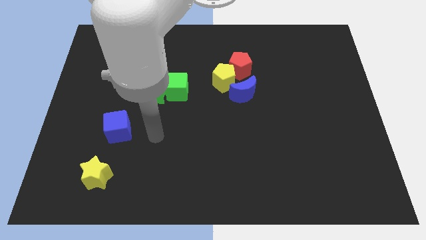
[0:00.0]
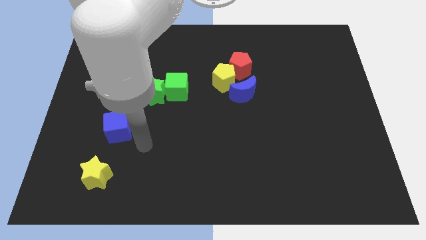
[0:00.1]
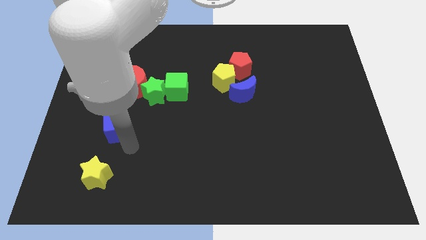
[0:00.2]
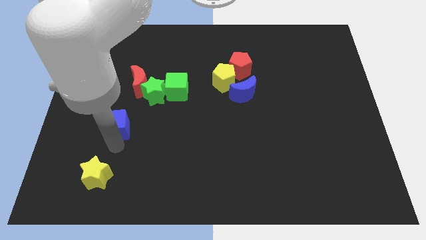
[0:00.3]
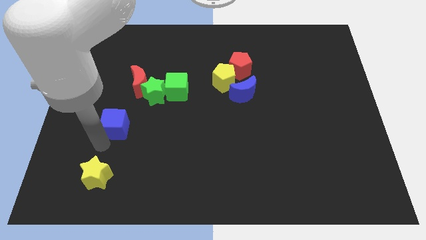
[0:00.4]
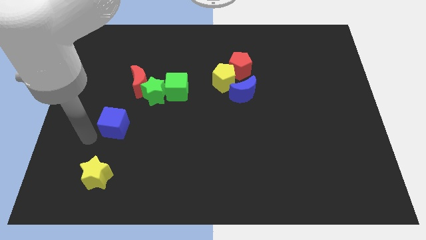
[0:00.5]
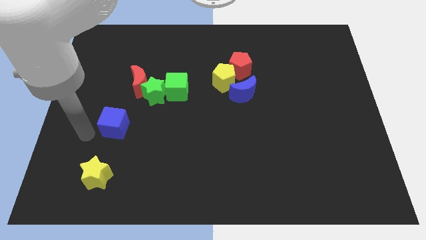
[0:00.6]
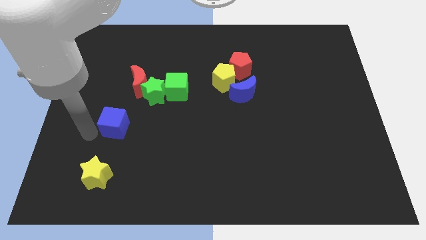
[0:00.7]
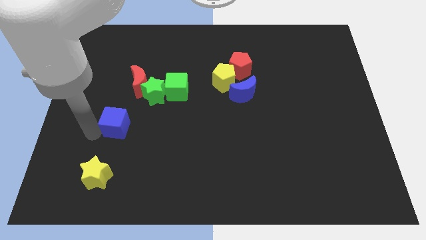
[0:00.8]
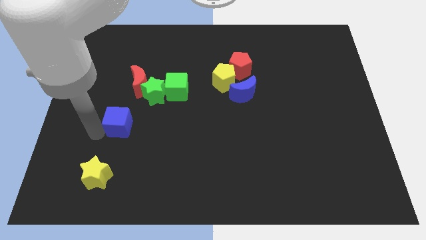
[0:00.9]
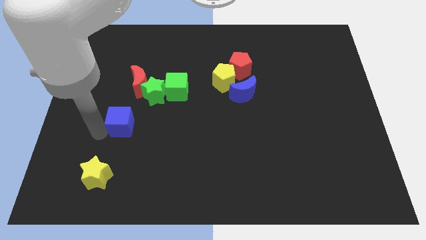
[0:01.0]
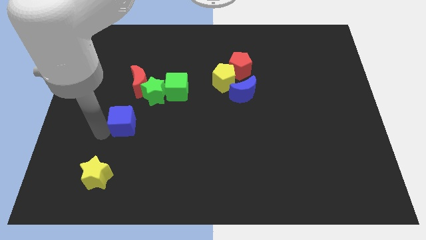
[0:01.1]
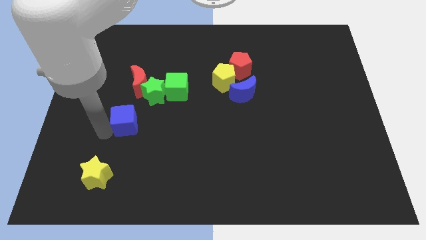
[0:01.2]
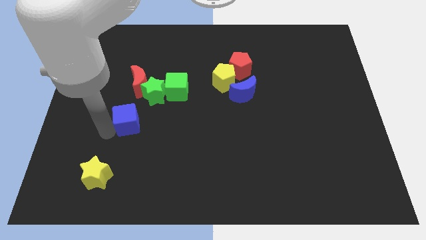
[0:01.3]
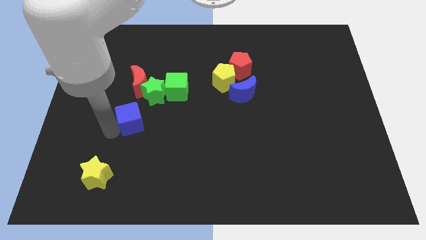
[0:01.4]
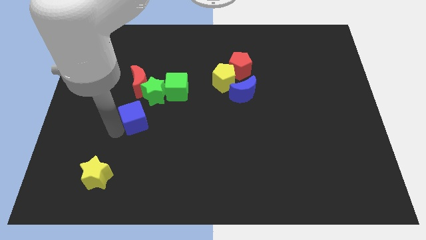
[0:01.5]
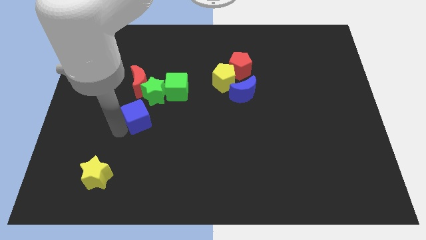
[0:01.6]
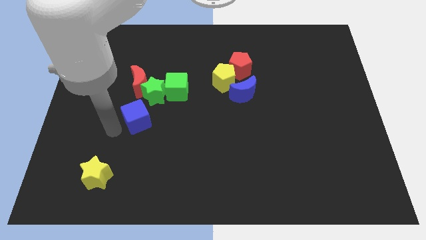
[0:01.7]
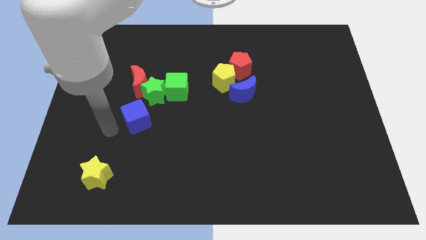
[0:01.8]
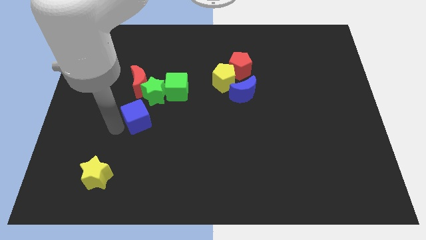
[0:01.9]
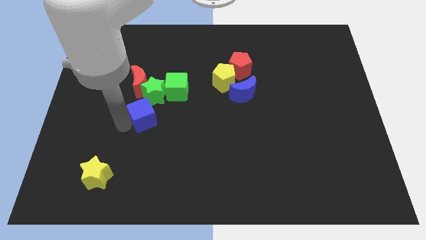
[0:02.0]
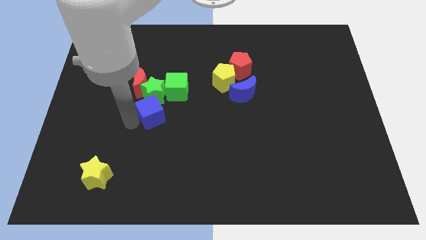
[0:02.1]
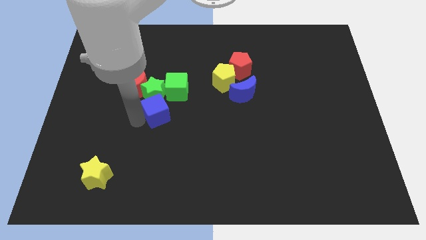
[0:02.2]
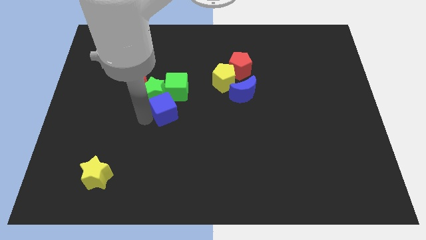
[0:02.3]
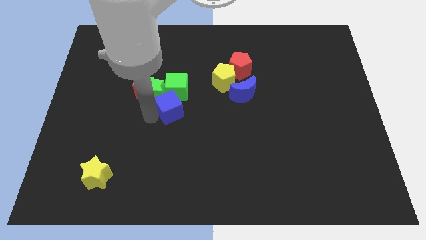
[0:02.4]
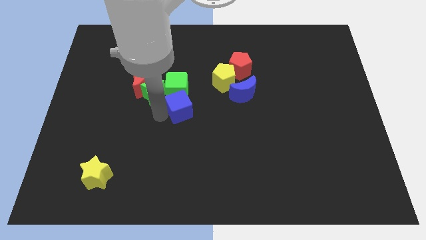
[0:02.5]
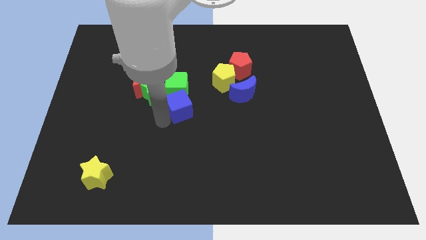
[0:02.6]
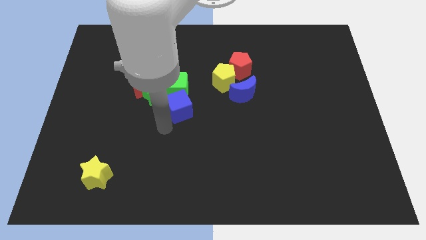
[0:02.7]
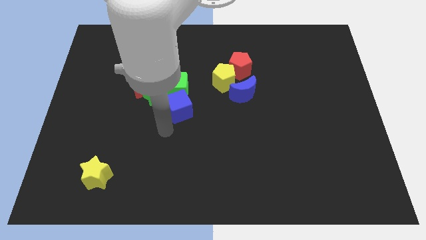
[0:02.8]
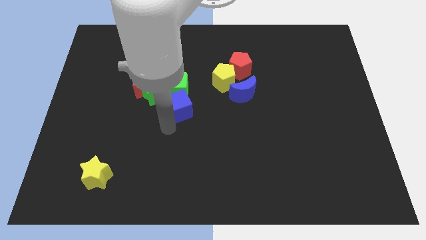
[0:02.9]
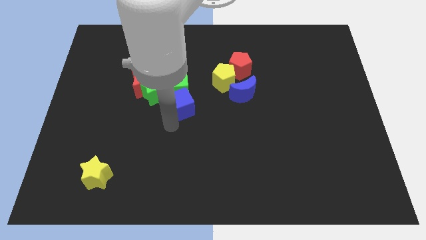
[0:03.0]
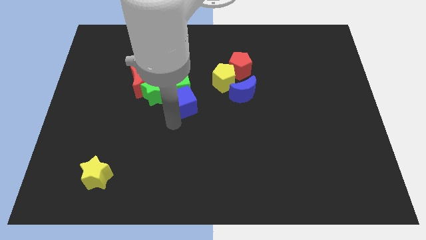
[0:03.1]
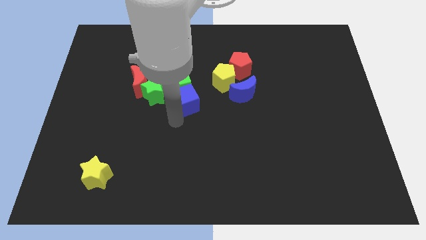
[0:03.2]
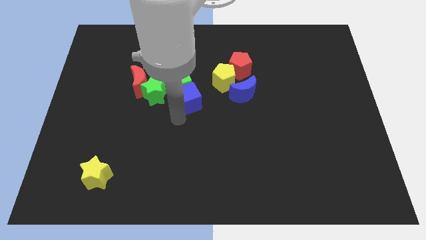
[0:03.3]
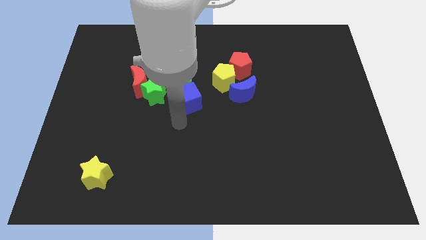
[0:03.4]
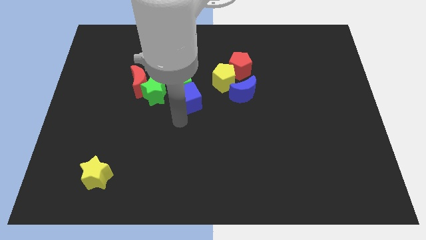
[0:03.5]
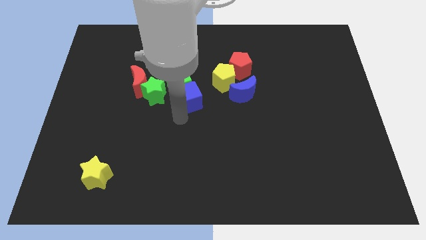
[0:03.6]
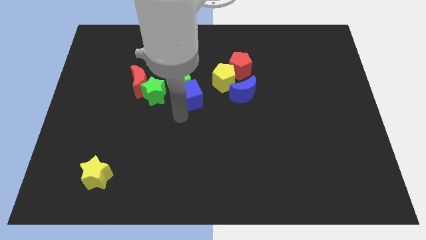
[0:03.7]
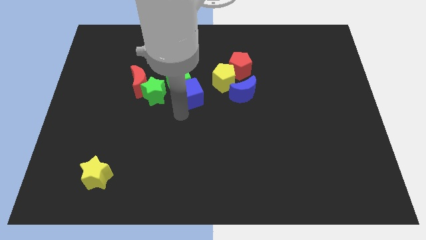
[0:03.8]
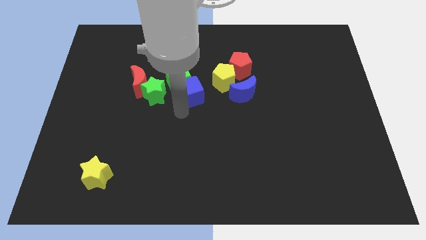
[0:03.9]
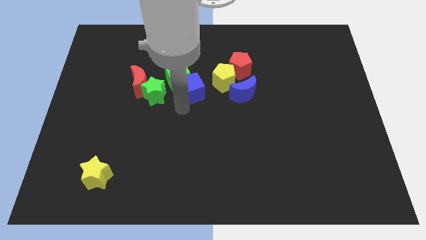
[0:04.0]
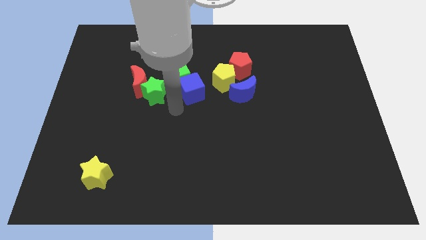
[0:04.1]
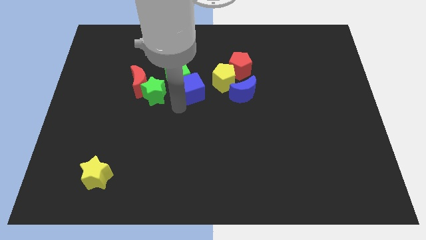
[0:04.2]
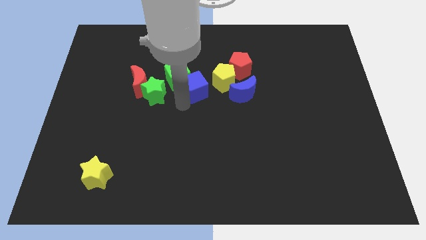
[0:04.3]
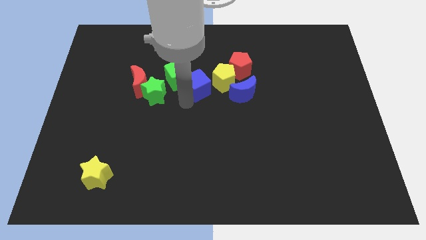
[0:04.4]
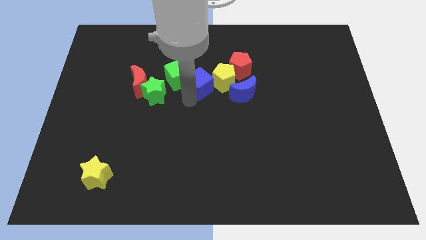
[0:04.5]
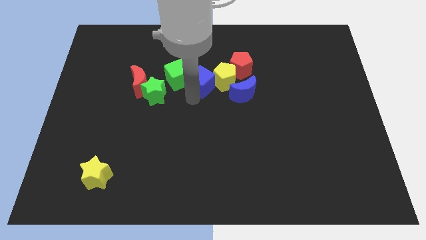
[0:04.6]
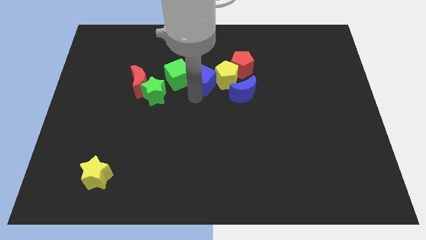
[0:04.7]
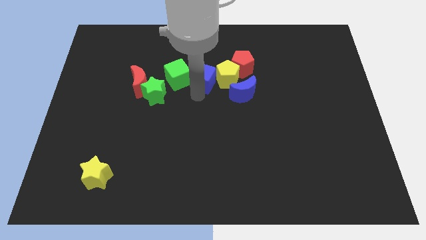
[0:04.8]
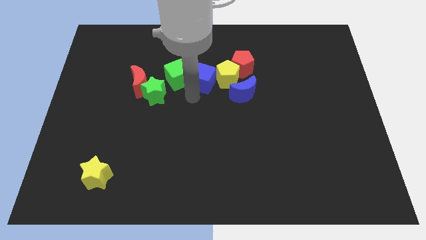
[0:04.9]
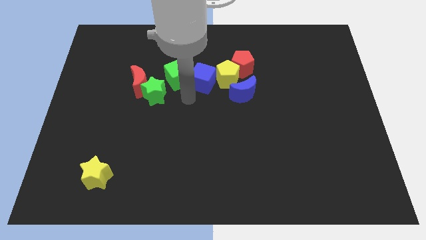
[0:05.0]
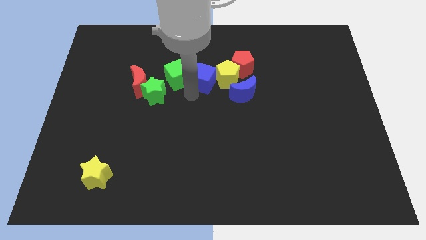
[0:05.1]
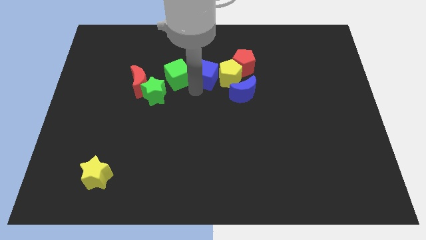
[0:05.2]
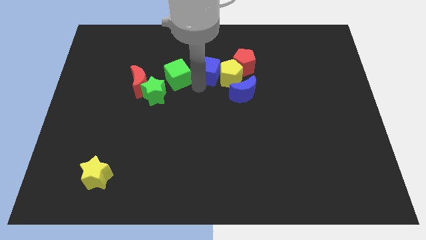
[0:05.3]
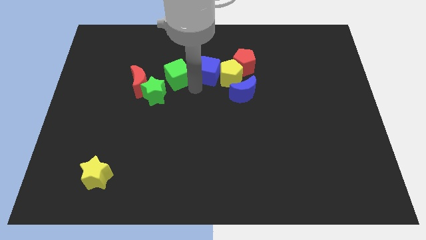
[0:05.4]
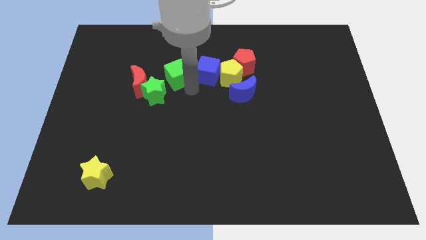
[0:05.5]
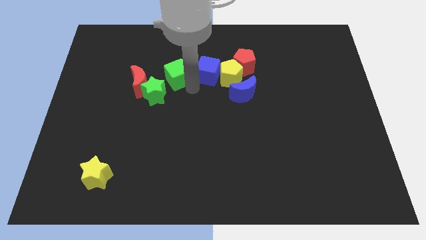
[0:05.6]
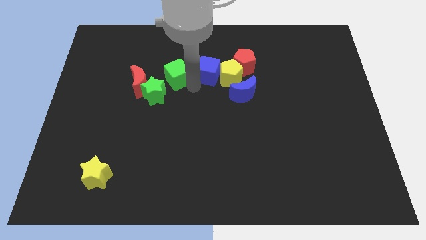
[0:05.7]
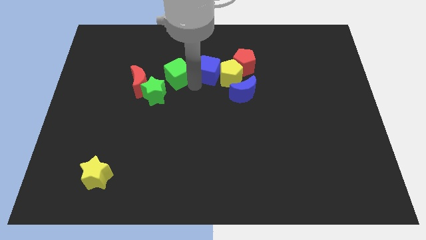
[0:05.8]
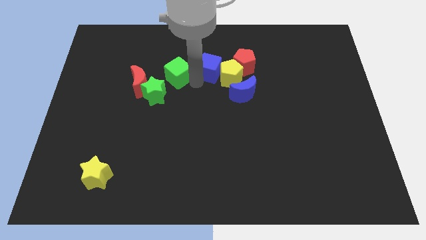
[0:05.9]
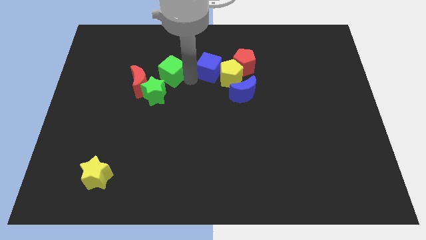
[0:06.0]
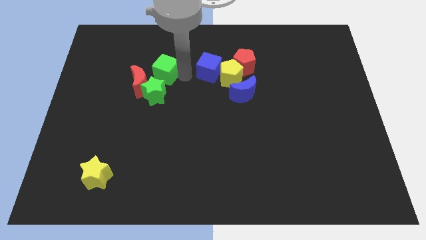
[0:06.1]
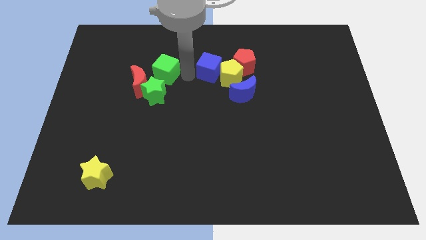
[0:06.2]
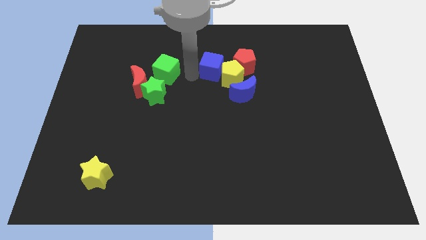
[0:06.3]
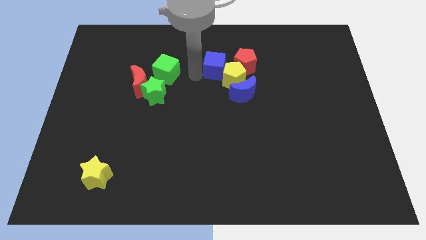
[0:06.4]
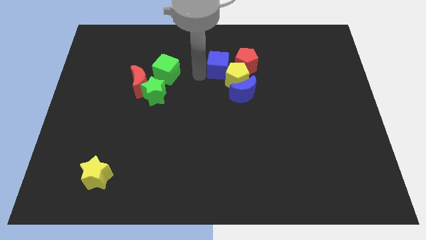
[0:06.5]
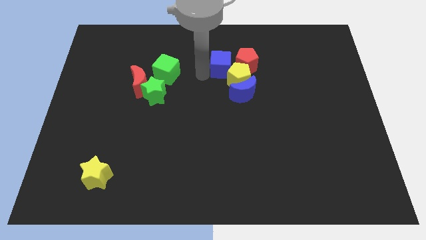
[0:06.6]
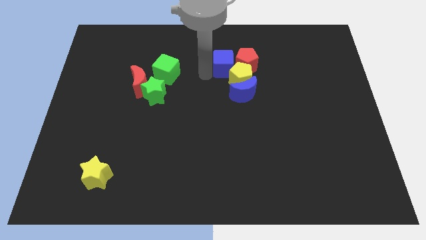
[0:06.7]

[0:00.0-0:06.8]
move the blue cube towards the red pentagon
